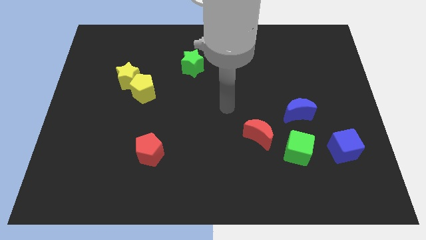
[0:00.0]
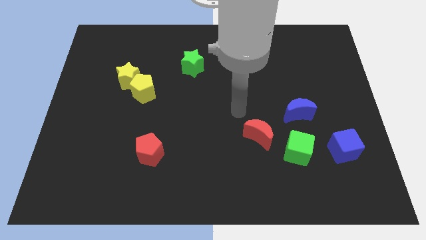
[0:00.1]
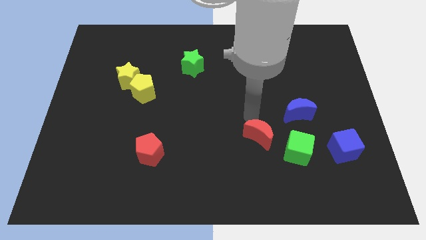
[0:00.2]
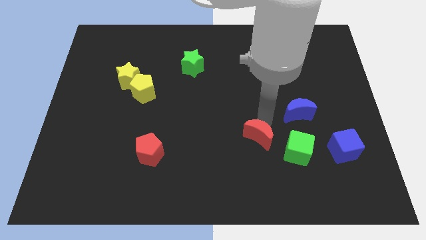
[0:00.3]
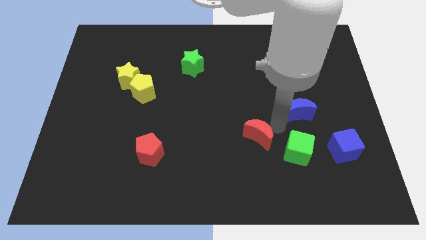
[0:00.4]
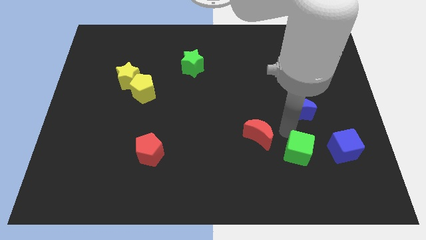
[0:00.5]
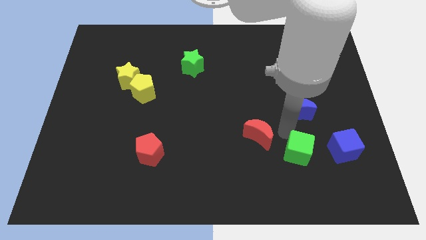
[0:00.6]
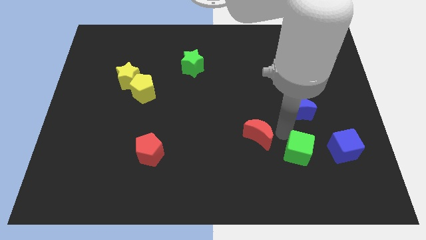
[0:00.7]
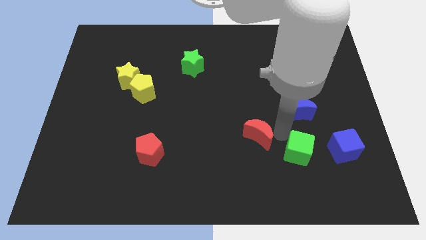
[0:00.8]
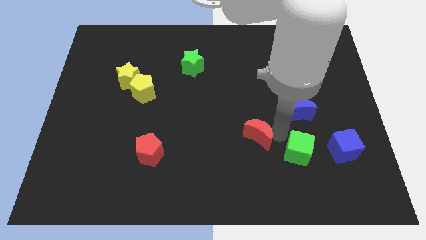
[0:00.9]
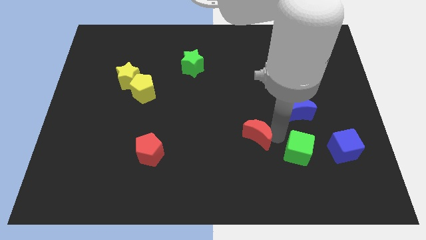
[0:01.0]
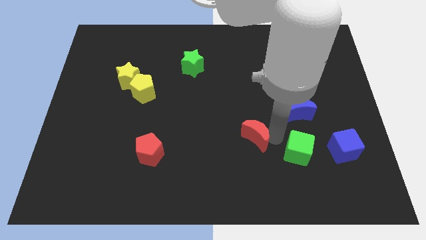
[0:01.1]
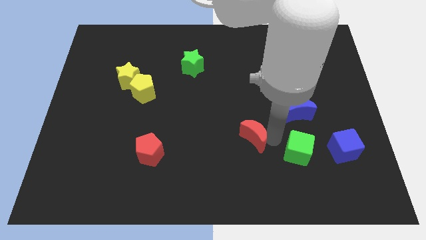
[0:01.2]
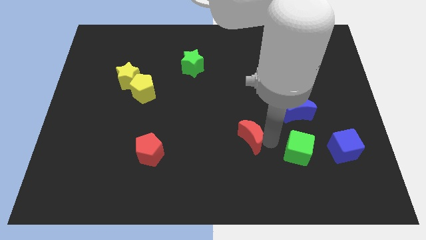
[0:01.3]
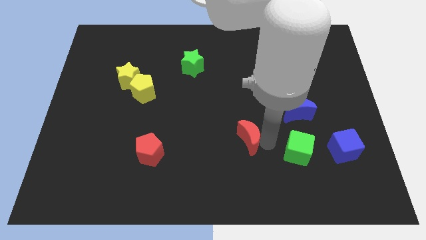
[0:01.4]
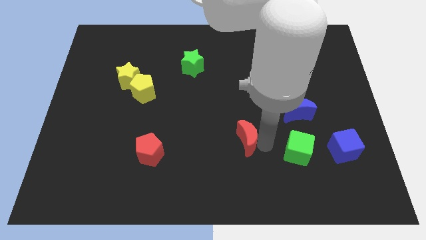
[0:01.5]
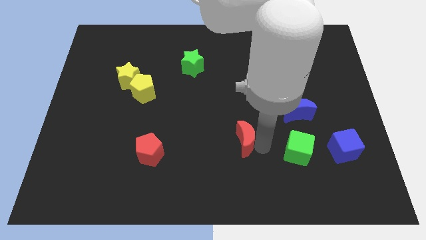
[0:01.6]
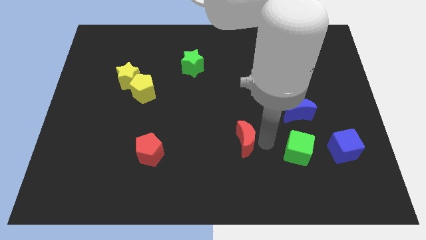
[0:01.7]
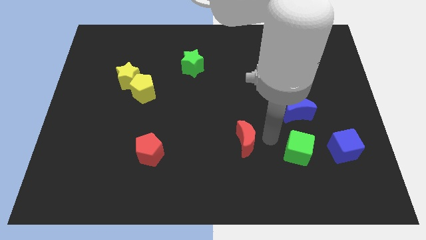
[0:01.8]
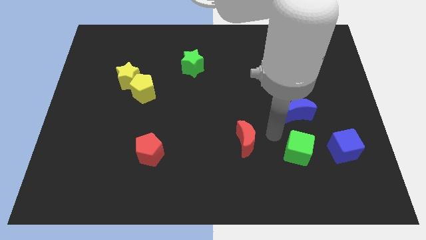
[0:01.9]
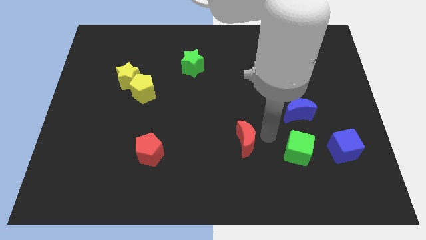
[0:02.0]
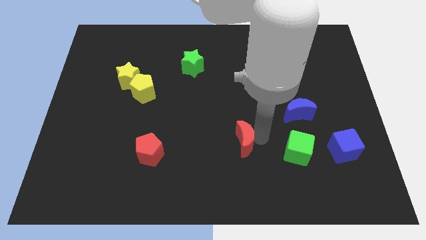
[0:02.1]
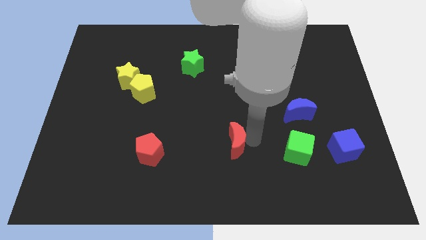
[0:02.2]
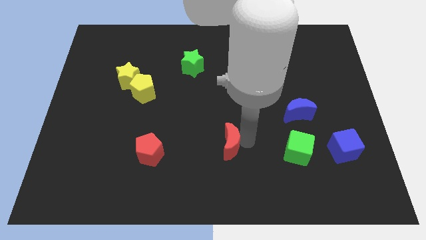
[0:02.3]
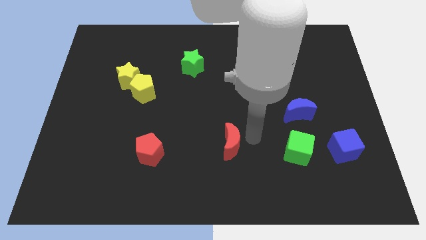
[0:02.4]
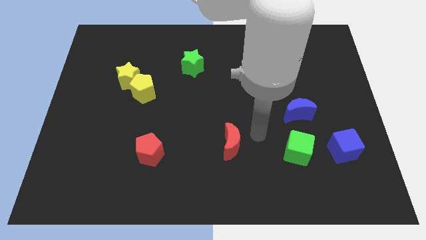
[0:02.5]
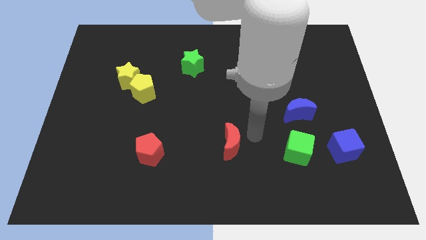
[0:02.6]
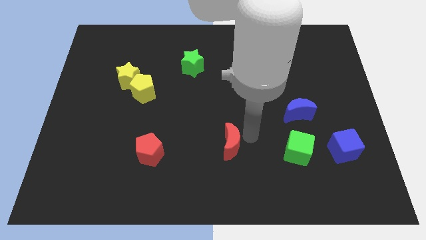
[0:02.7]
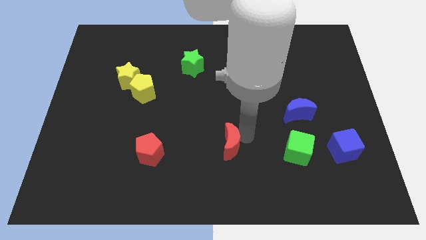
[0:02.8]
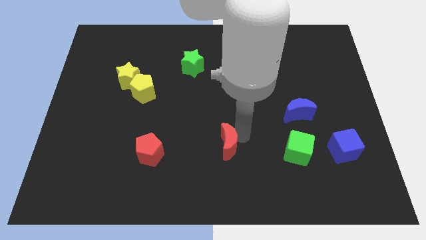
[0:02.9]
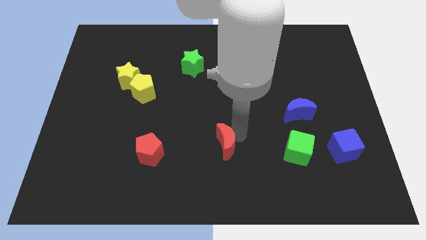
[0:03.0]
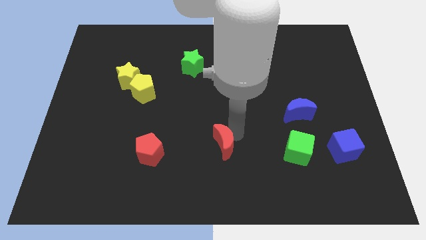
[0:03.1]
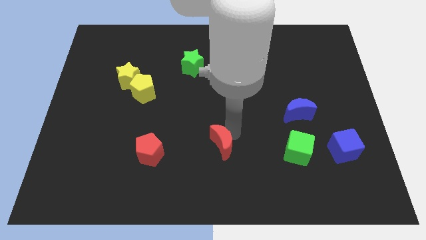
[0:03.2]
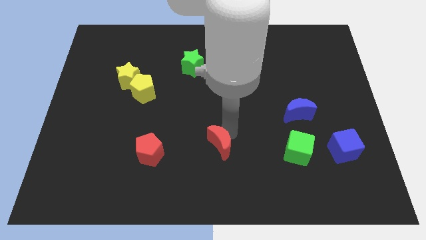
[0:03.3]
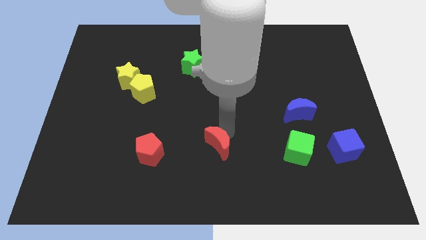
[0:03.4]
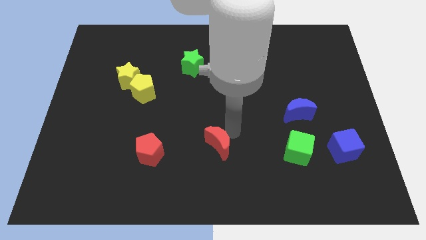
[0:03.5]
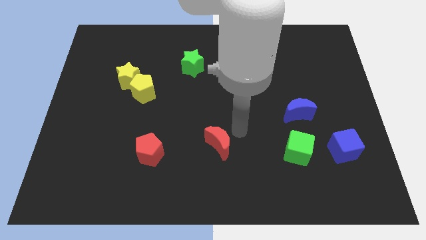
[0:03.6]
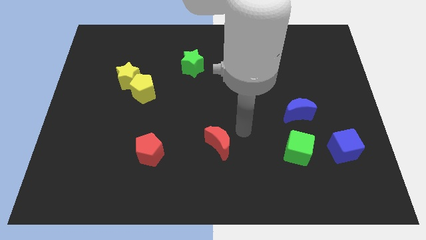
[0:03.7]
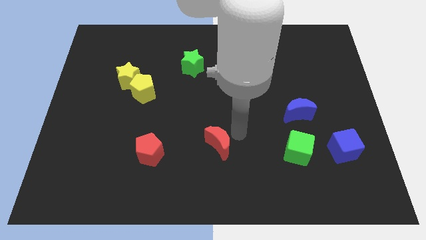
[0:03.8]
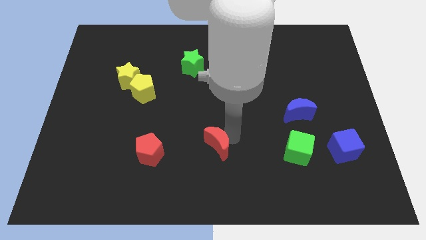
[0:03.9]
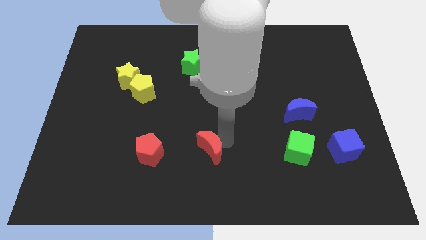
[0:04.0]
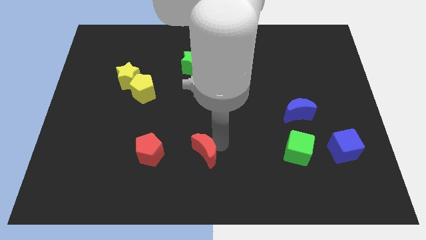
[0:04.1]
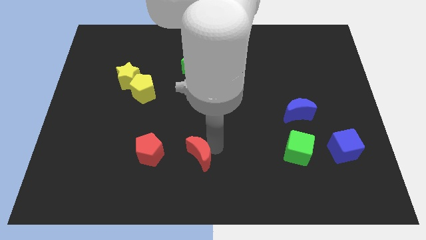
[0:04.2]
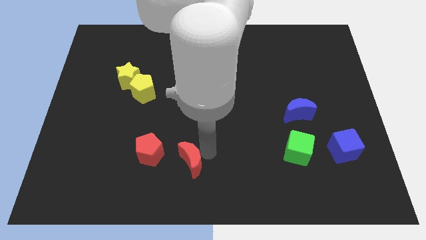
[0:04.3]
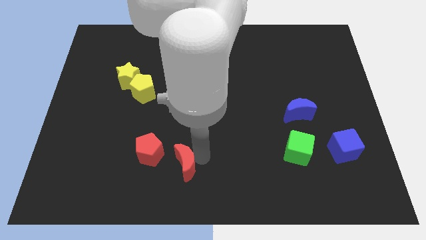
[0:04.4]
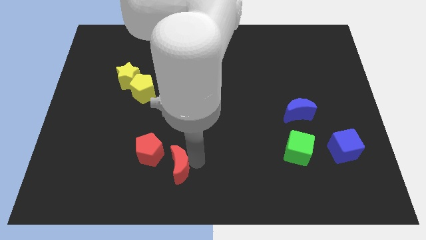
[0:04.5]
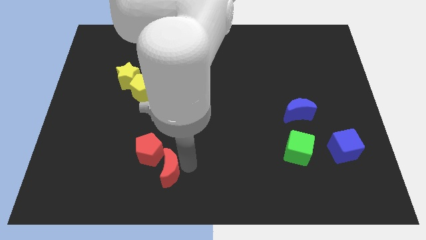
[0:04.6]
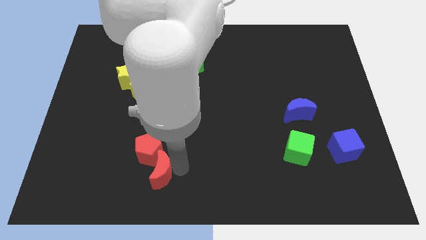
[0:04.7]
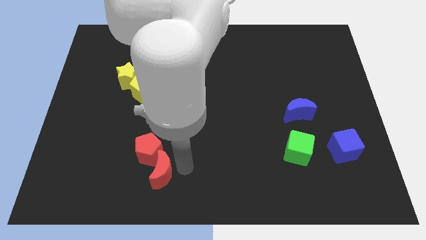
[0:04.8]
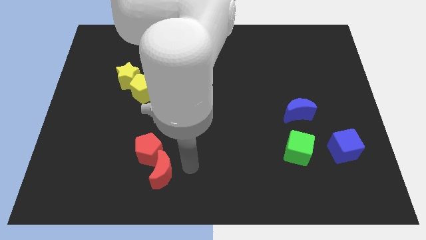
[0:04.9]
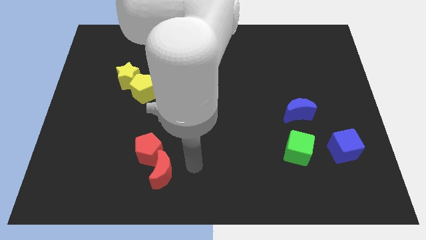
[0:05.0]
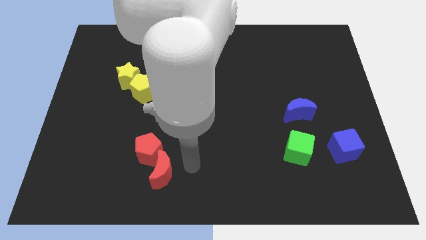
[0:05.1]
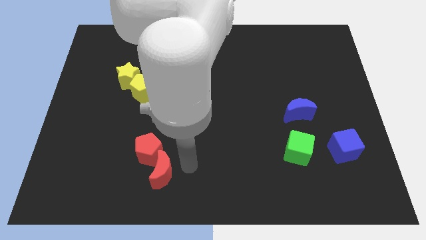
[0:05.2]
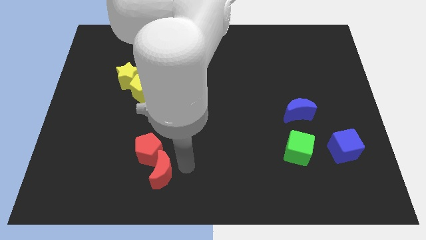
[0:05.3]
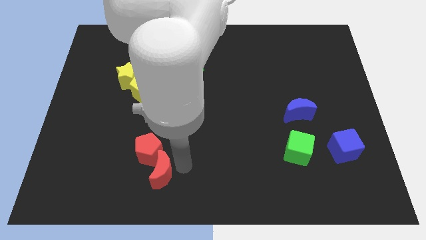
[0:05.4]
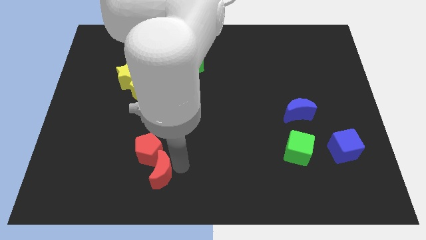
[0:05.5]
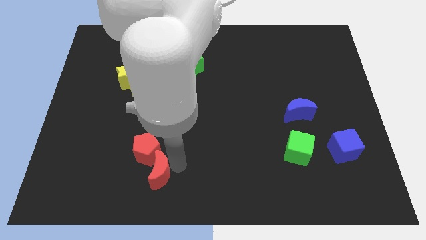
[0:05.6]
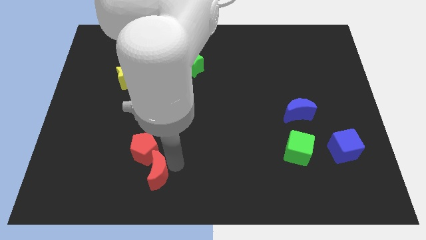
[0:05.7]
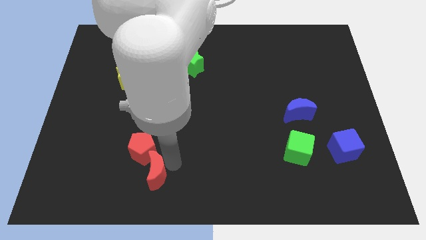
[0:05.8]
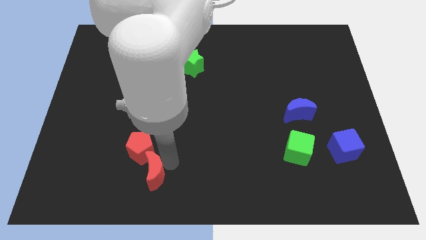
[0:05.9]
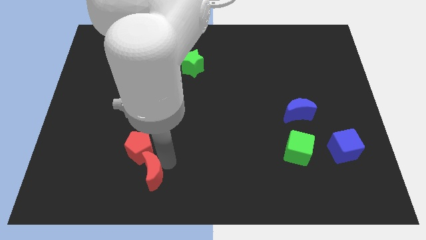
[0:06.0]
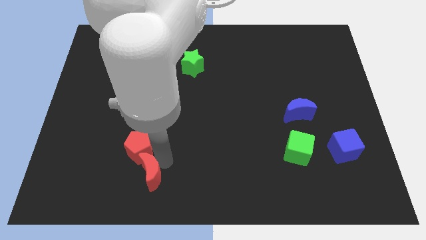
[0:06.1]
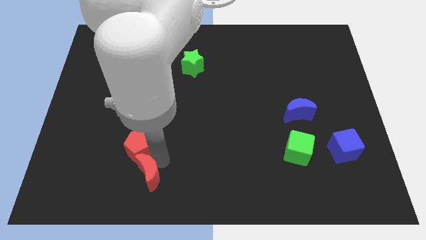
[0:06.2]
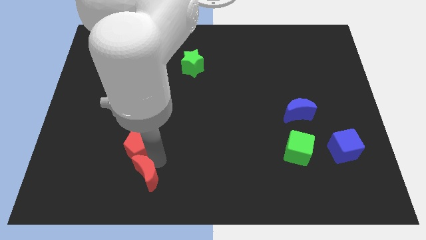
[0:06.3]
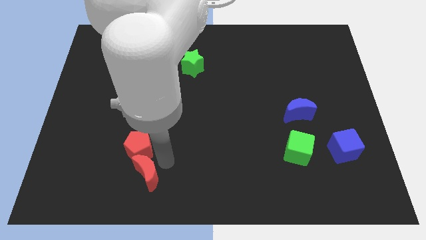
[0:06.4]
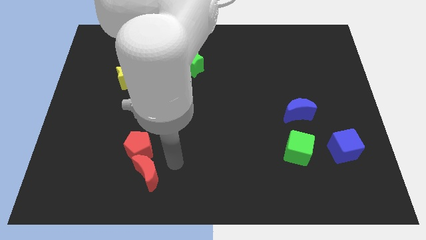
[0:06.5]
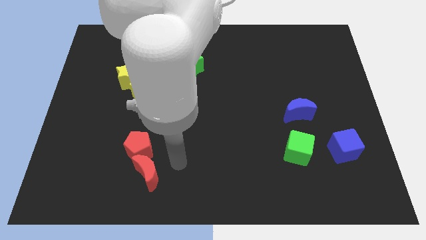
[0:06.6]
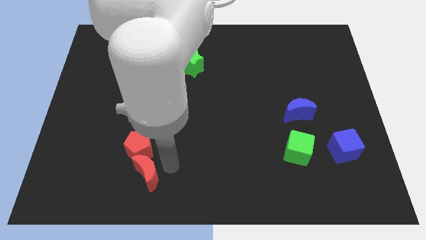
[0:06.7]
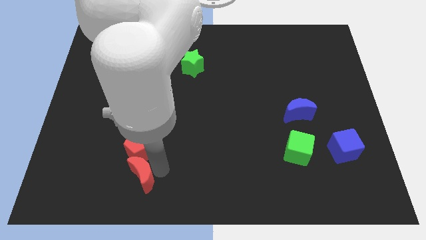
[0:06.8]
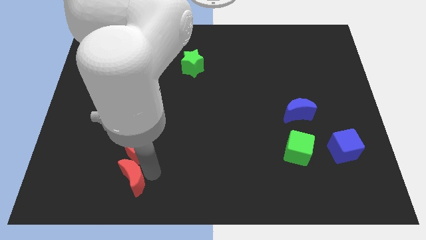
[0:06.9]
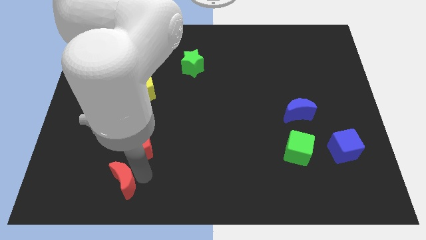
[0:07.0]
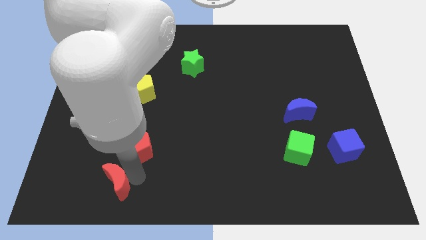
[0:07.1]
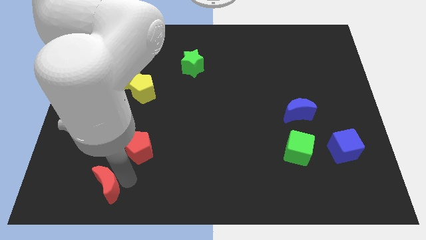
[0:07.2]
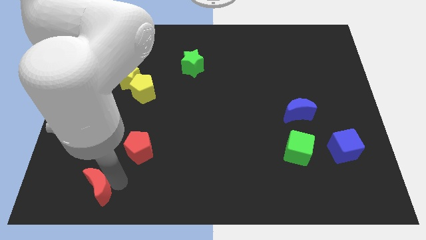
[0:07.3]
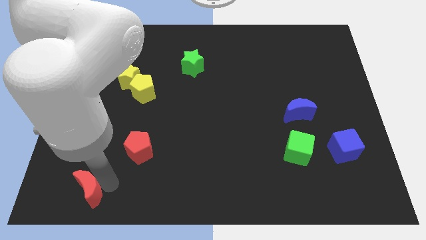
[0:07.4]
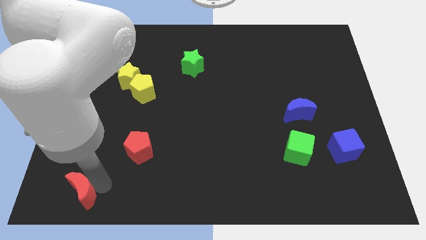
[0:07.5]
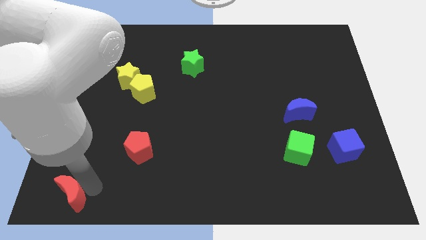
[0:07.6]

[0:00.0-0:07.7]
put the red moon to the bottom left
